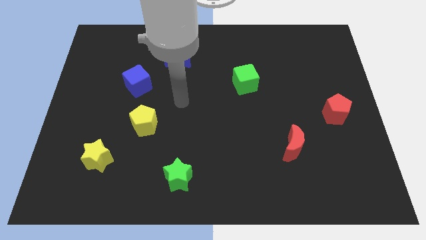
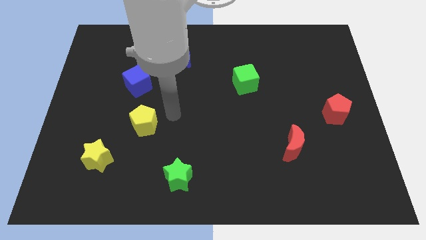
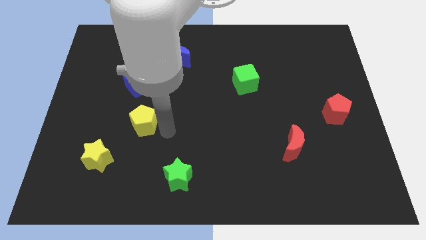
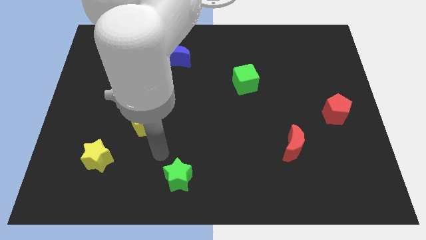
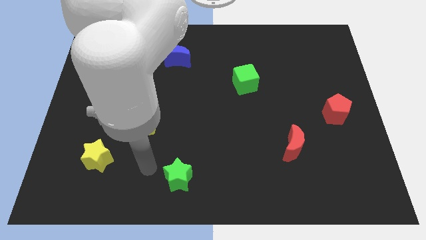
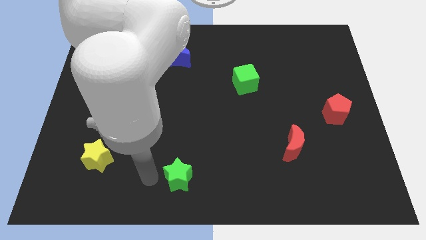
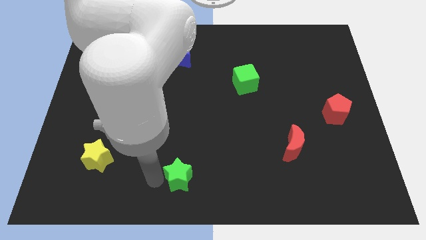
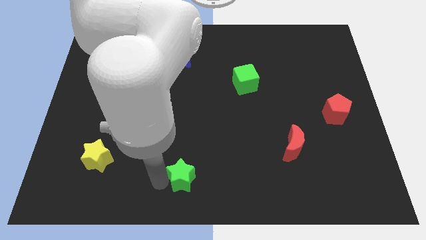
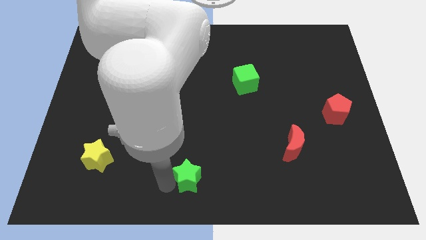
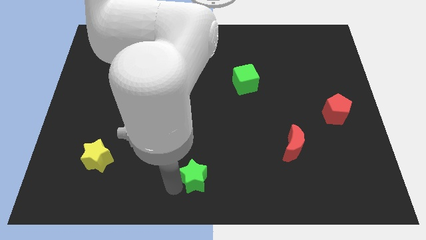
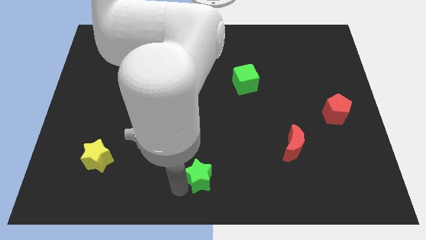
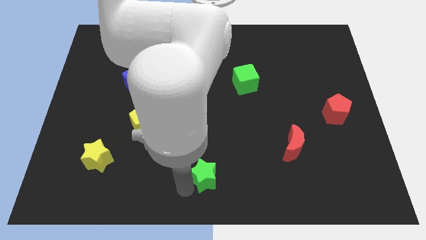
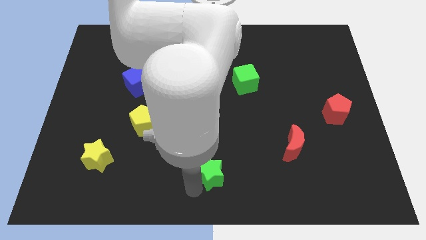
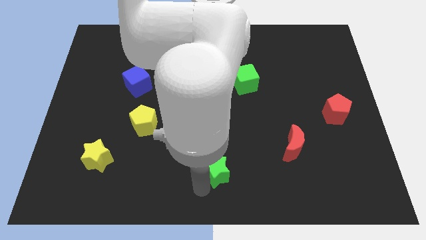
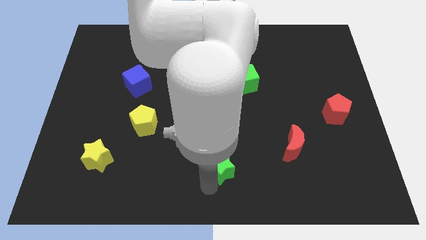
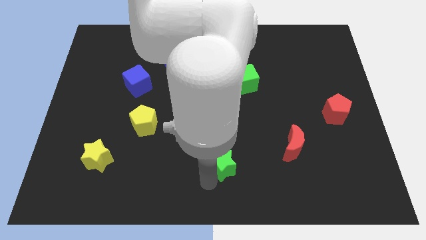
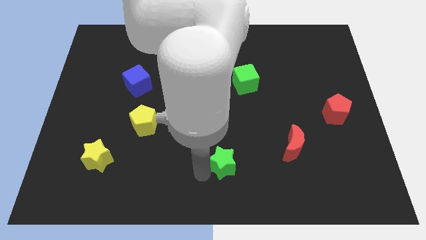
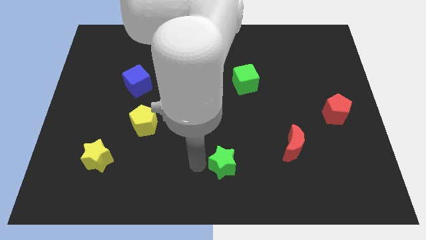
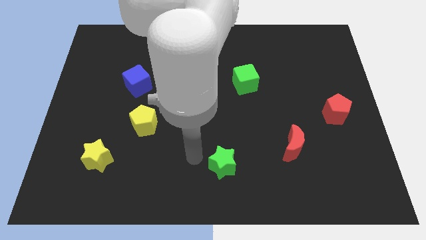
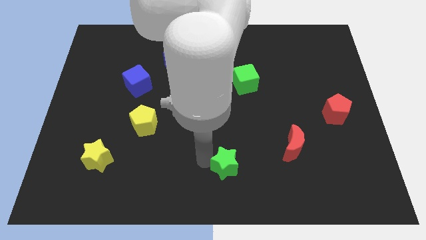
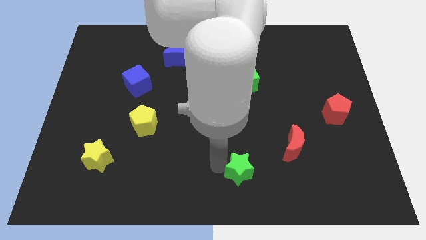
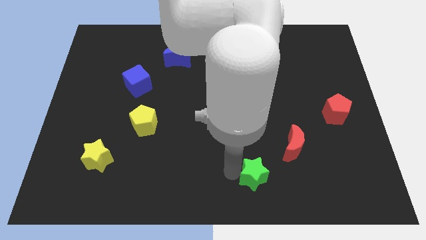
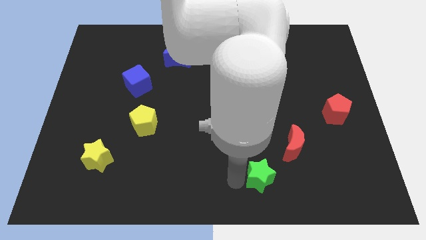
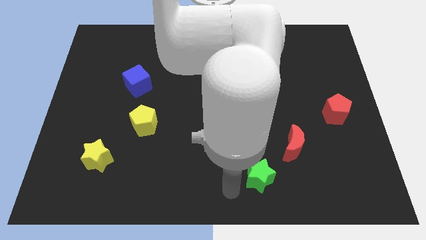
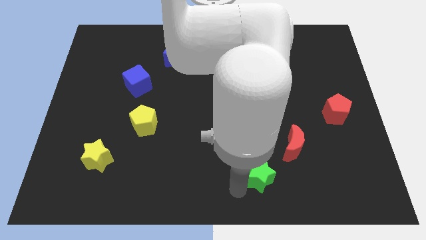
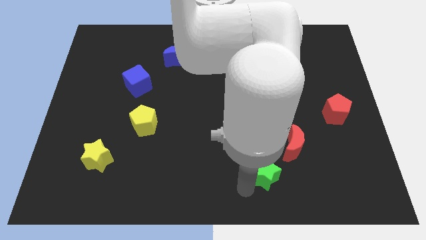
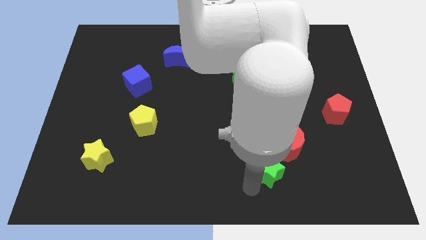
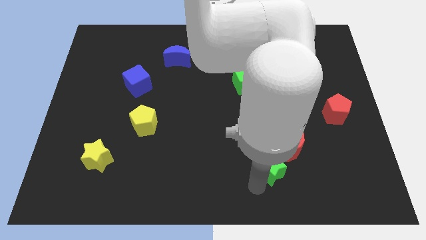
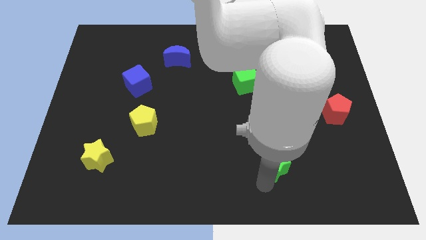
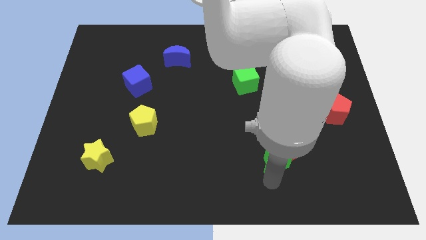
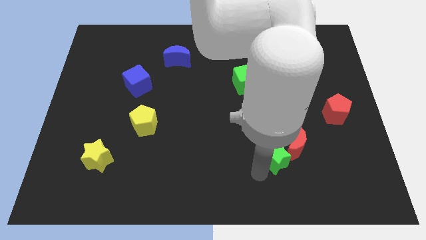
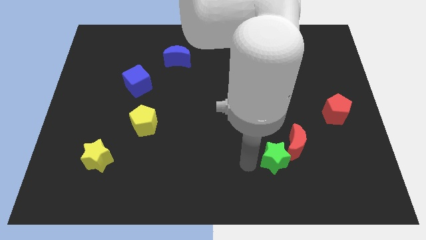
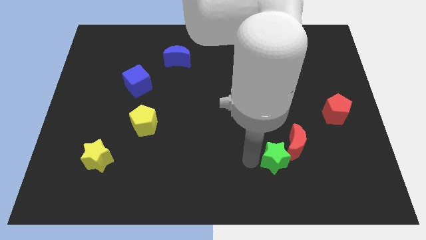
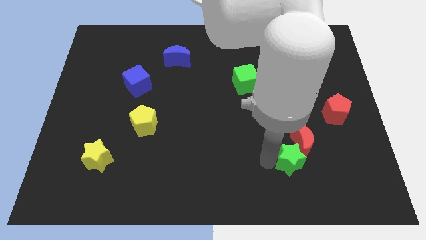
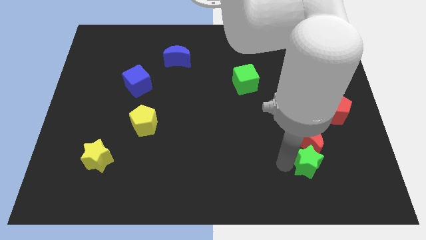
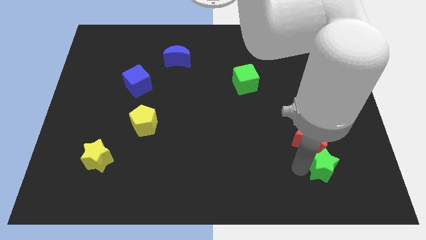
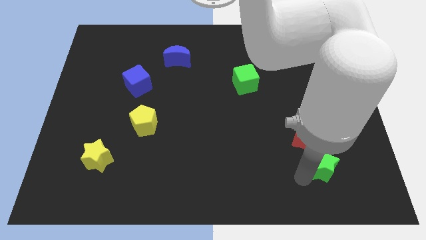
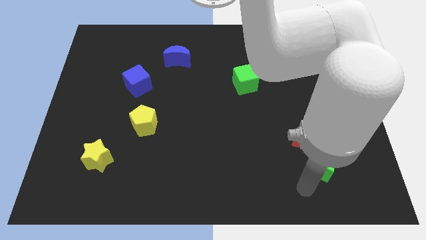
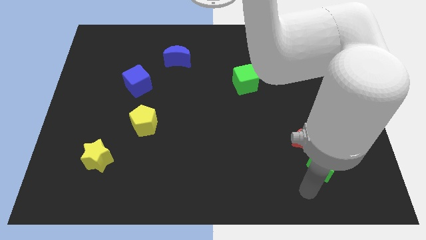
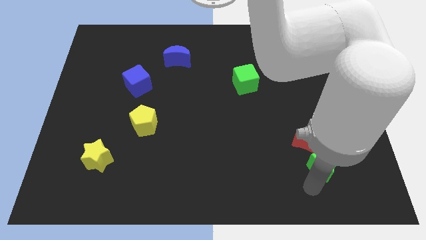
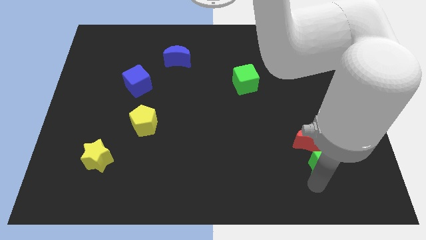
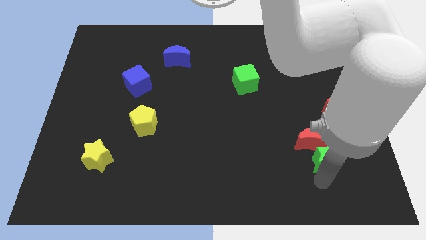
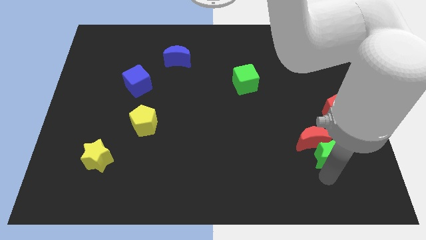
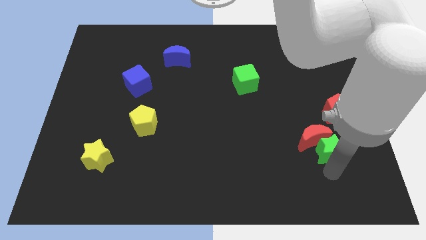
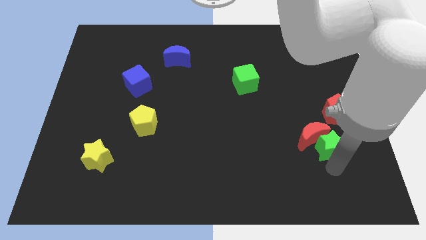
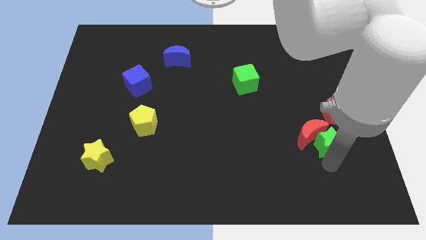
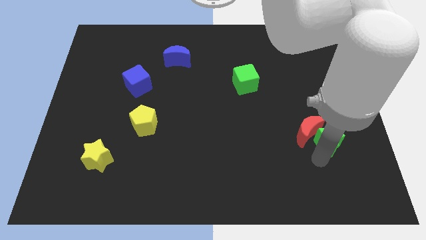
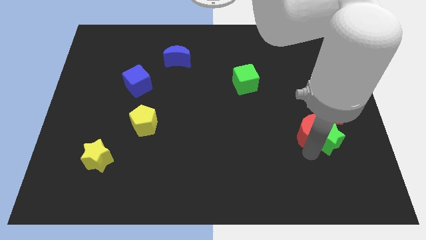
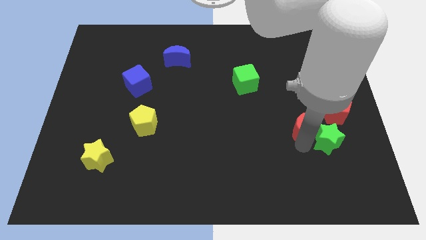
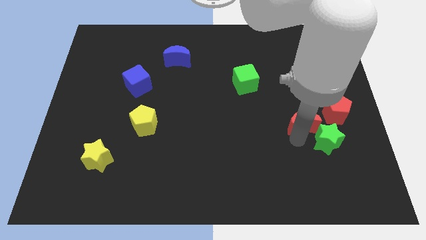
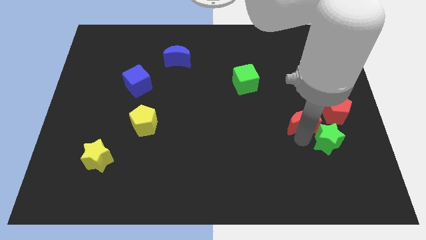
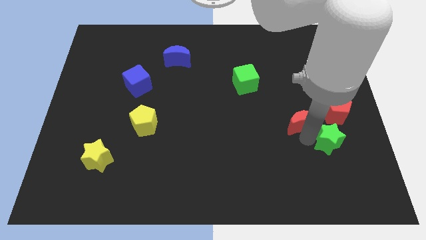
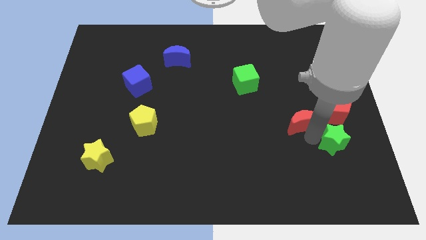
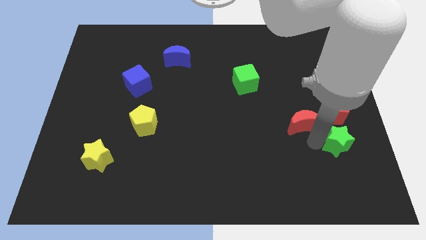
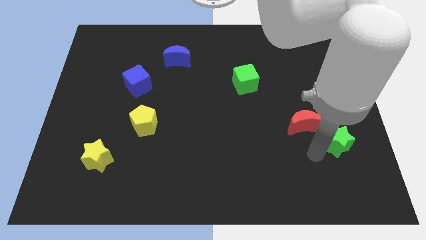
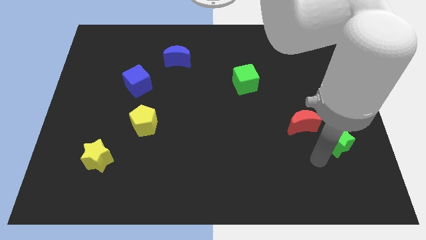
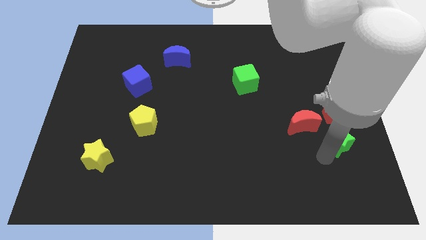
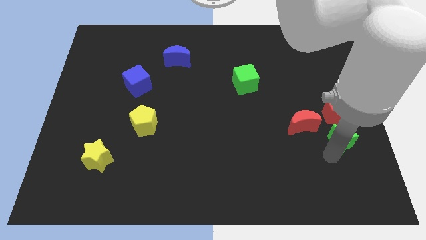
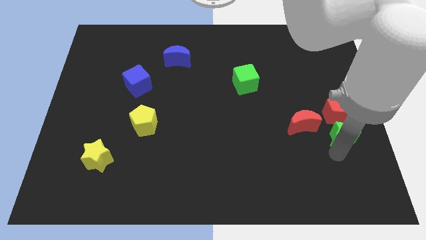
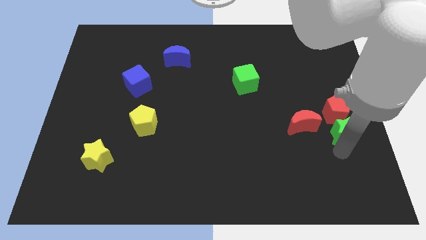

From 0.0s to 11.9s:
slide the green star to the right side

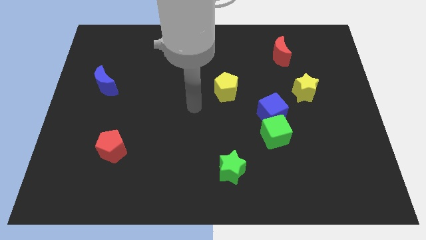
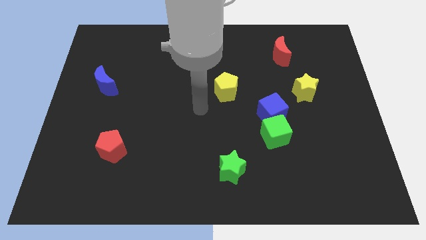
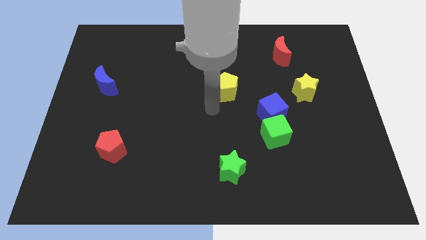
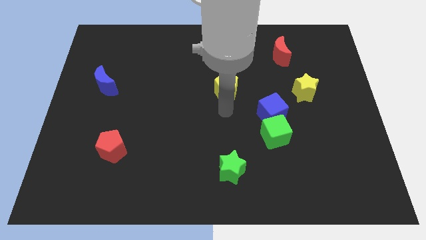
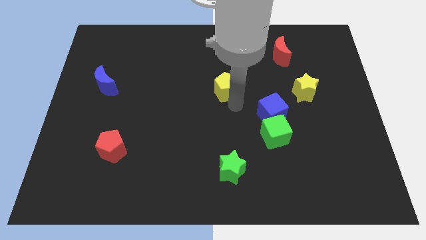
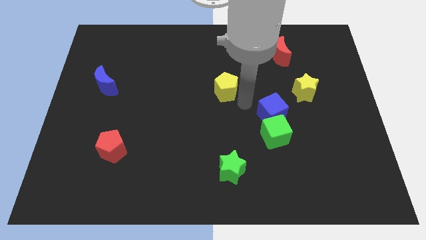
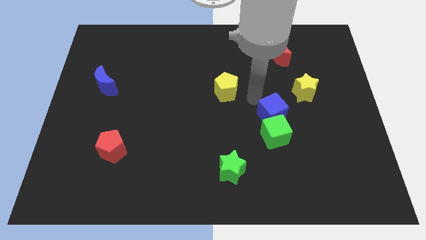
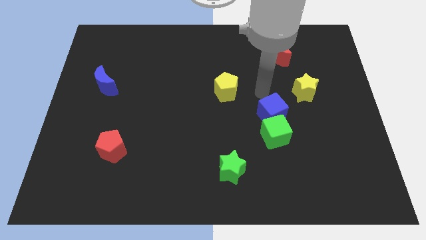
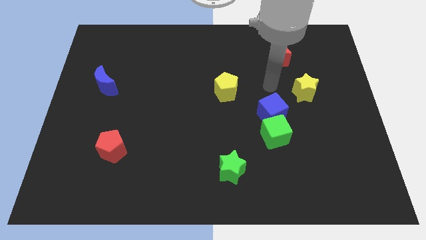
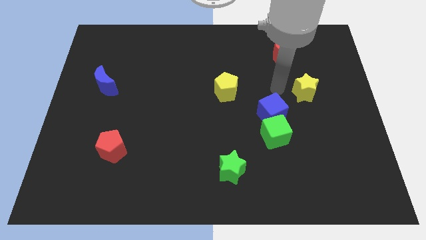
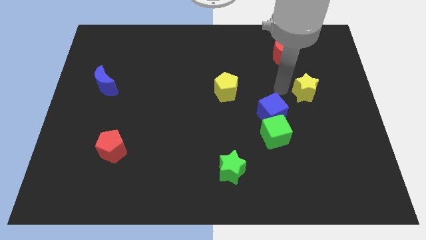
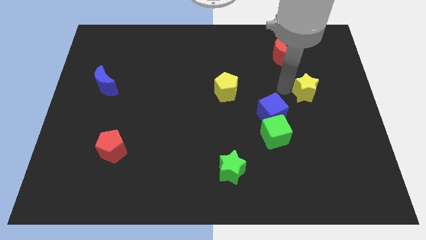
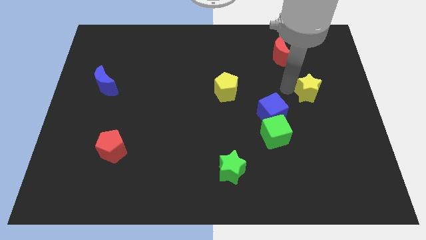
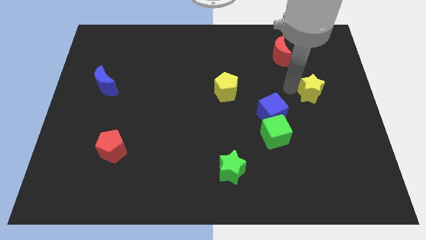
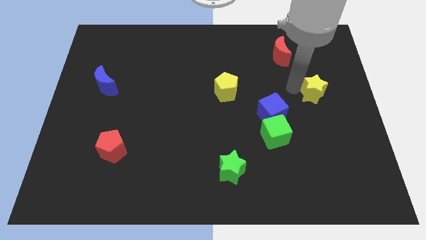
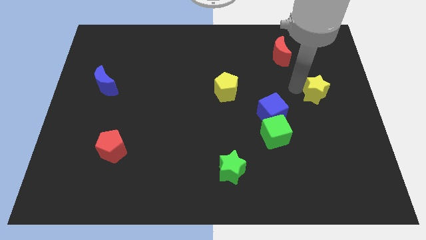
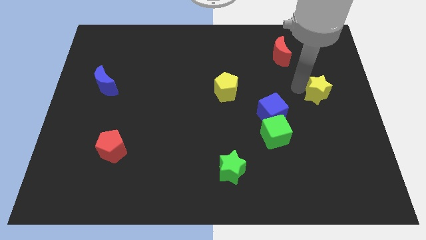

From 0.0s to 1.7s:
slide the yellow star to the right side of the board
